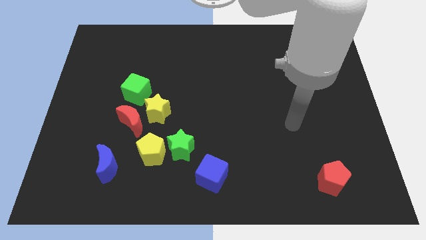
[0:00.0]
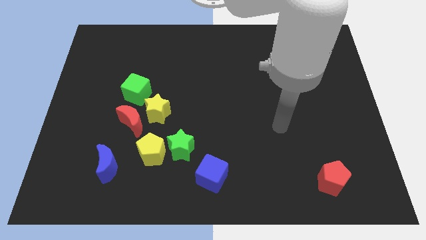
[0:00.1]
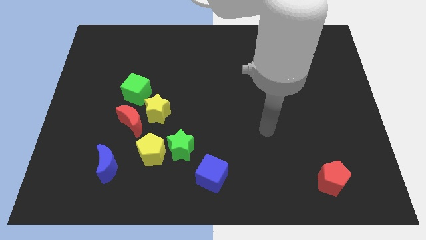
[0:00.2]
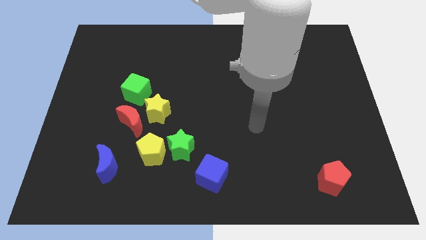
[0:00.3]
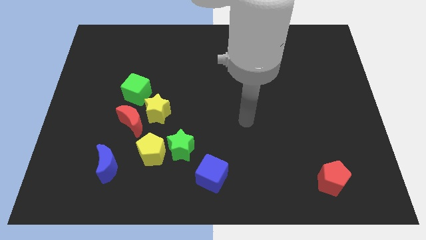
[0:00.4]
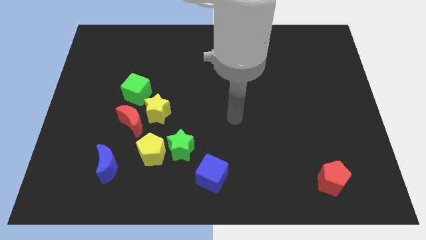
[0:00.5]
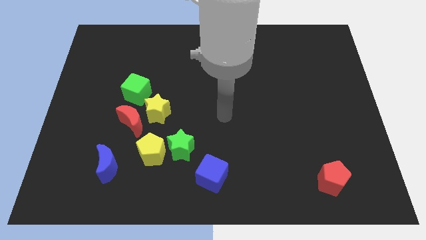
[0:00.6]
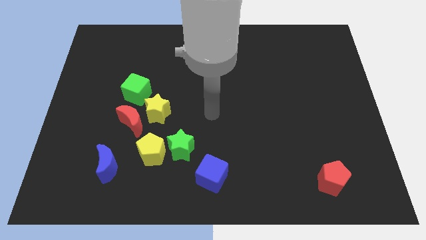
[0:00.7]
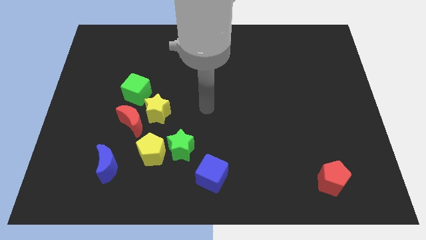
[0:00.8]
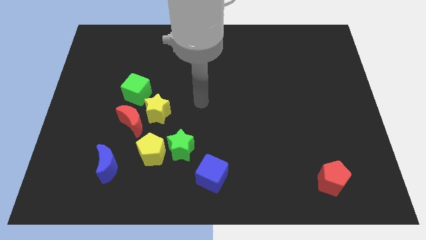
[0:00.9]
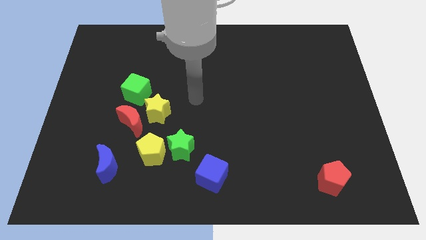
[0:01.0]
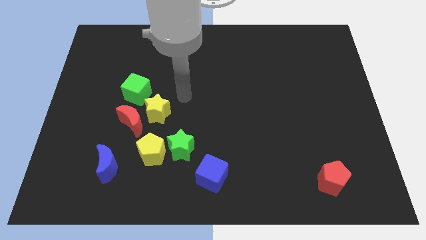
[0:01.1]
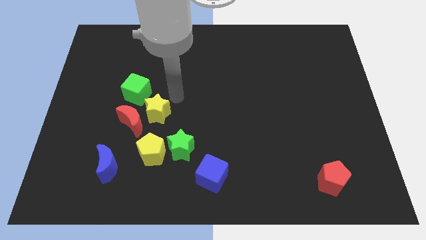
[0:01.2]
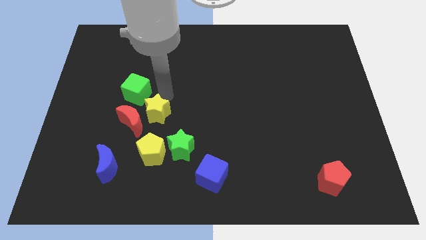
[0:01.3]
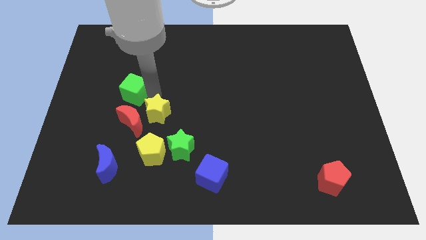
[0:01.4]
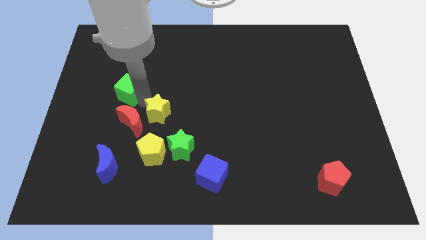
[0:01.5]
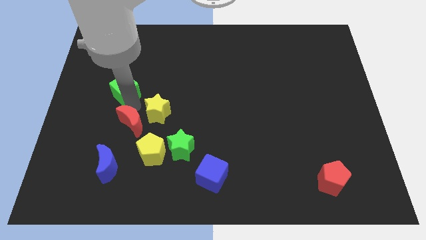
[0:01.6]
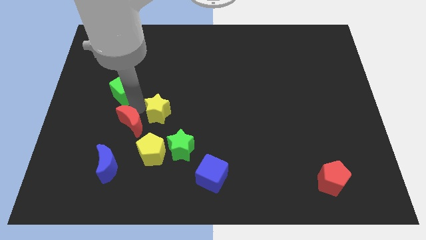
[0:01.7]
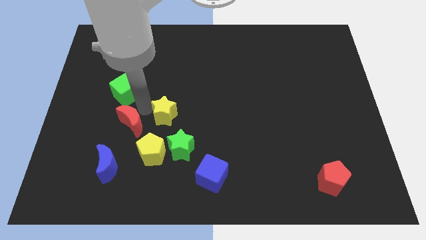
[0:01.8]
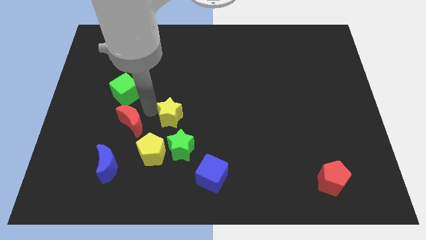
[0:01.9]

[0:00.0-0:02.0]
pull the yellow star apart from the red moon and green cube

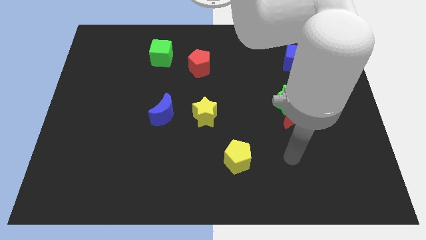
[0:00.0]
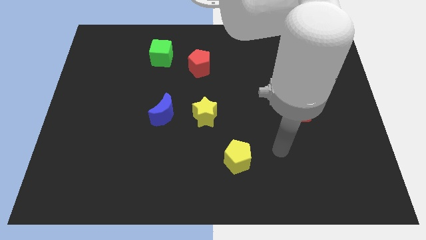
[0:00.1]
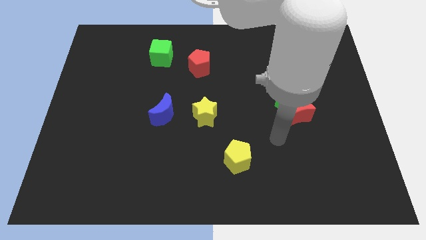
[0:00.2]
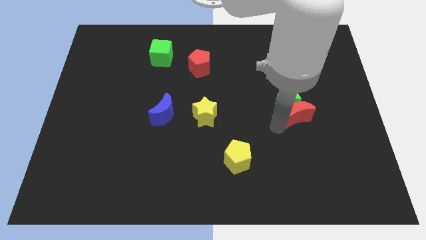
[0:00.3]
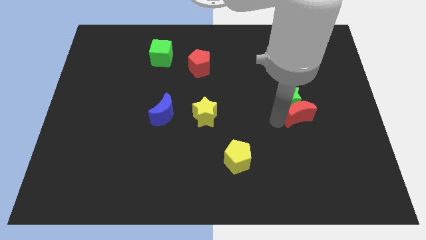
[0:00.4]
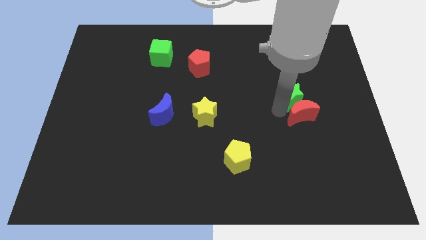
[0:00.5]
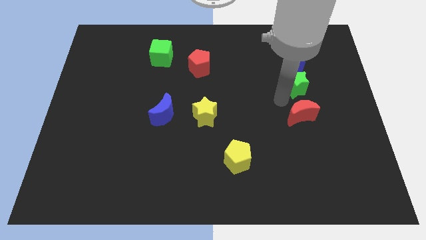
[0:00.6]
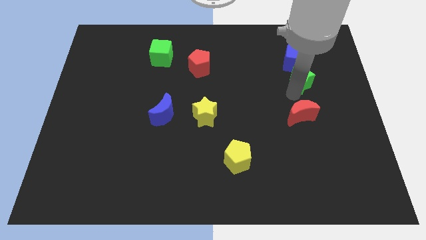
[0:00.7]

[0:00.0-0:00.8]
separate the red moon from the green star

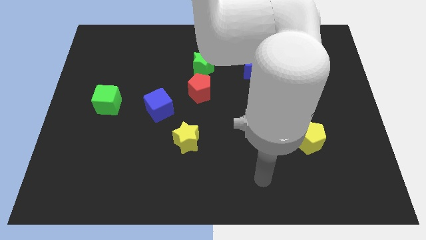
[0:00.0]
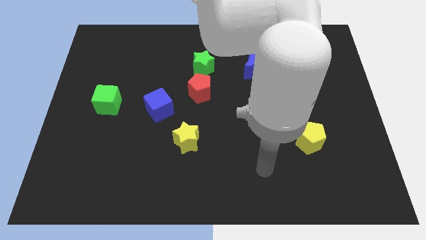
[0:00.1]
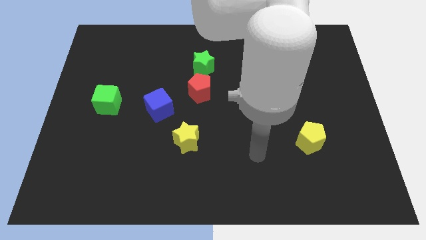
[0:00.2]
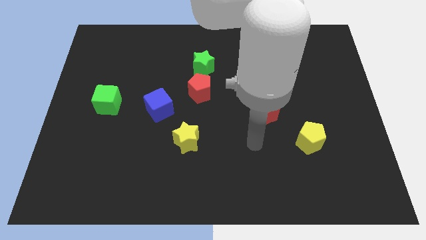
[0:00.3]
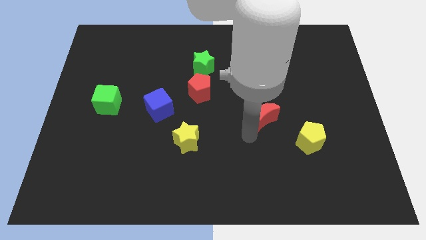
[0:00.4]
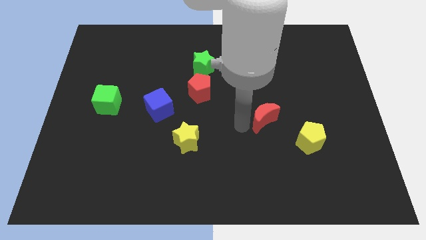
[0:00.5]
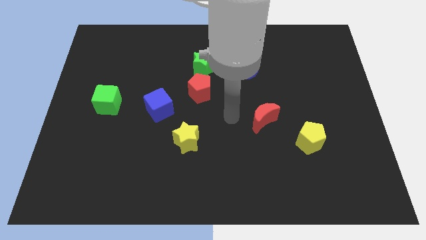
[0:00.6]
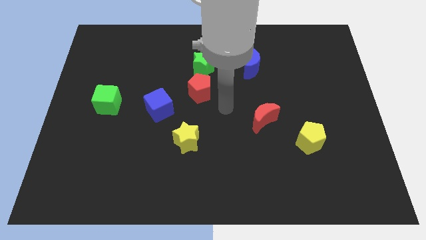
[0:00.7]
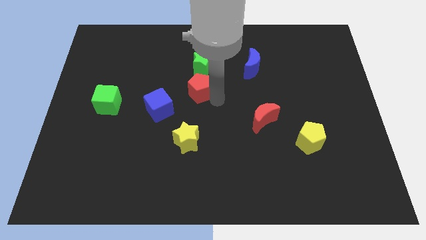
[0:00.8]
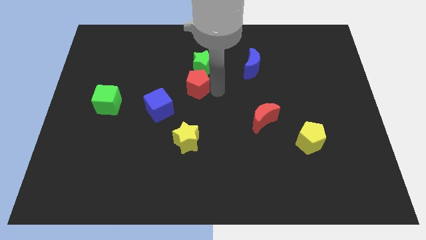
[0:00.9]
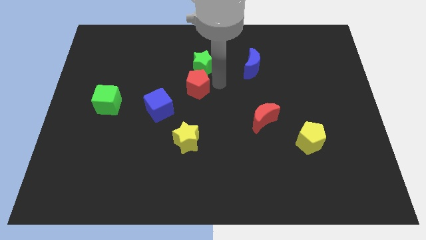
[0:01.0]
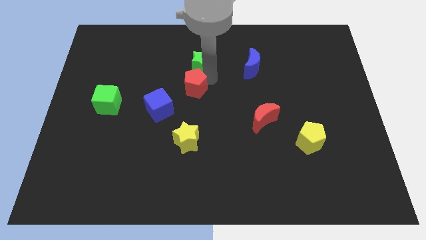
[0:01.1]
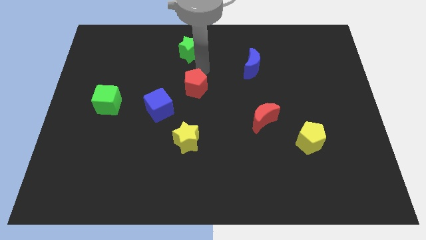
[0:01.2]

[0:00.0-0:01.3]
pull the red pentagon apart from the green star

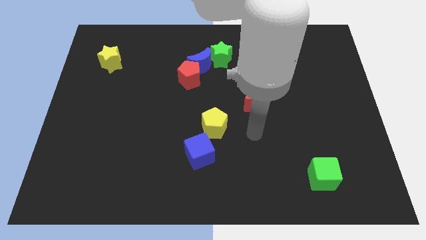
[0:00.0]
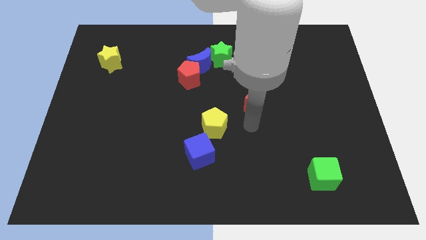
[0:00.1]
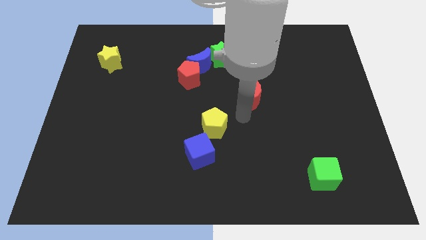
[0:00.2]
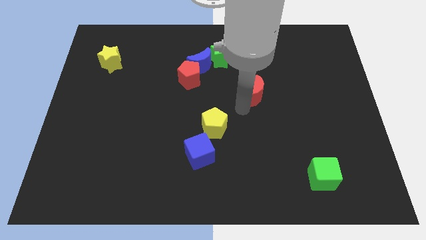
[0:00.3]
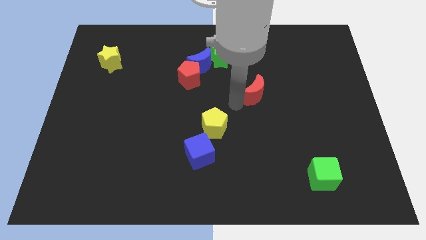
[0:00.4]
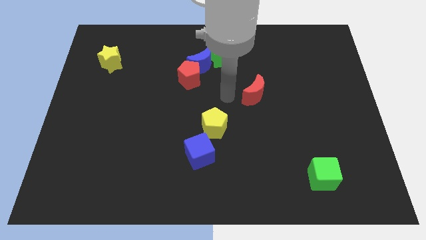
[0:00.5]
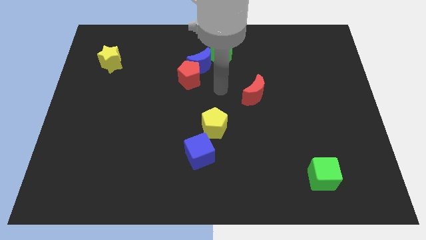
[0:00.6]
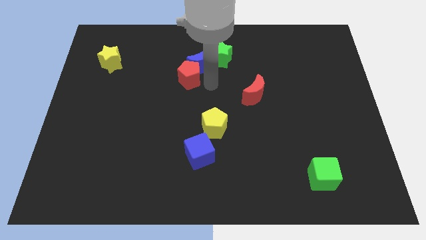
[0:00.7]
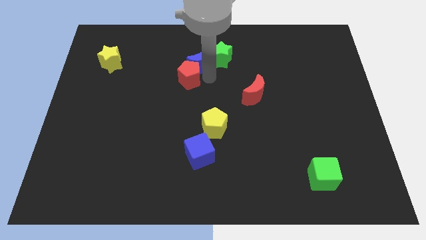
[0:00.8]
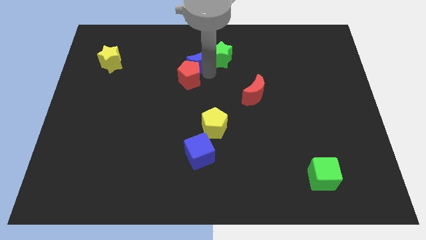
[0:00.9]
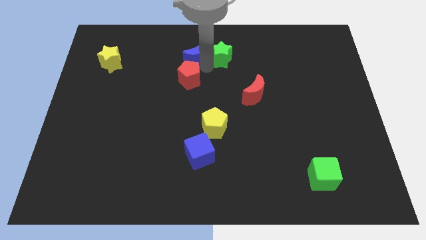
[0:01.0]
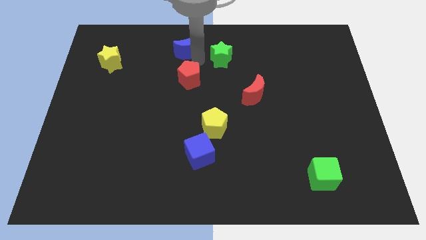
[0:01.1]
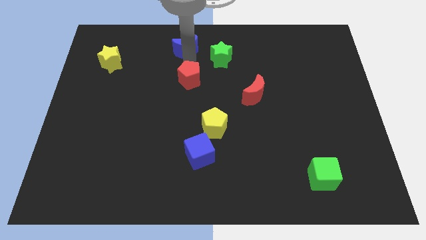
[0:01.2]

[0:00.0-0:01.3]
move the red pentagon away from the blue moon

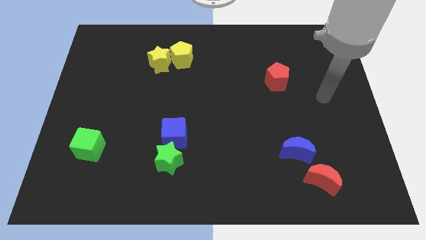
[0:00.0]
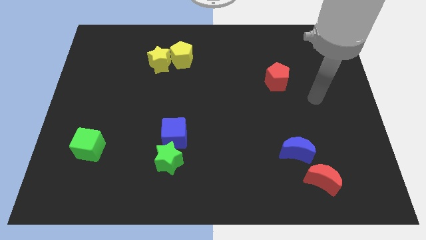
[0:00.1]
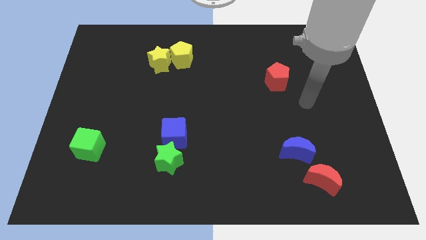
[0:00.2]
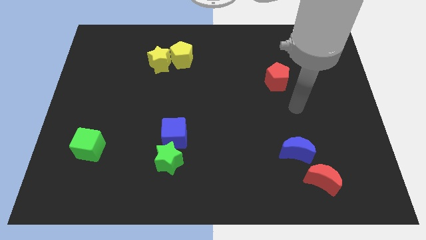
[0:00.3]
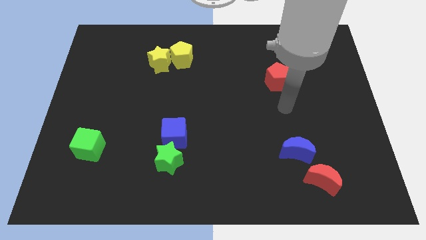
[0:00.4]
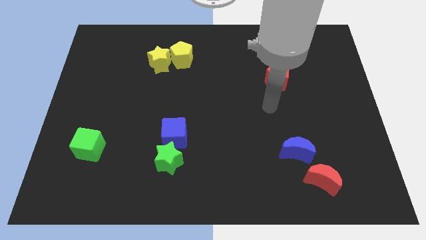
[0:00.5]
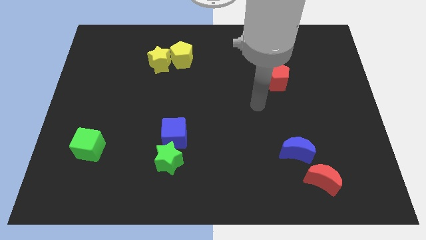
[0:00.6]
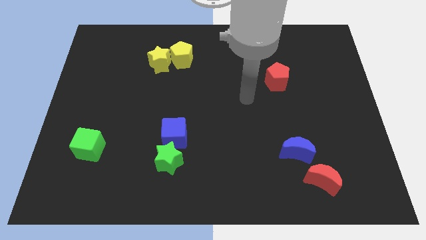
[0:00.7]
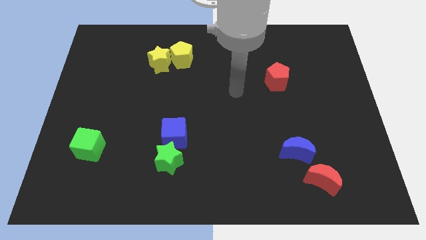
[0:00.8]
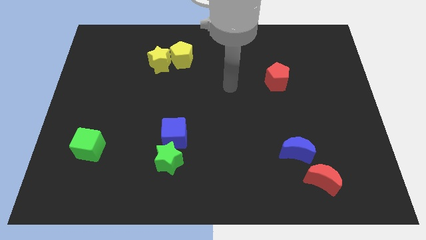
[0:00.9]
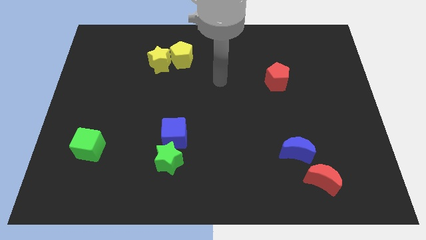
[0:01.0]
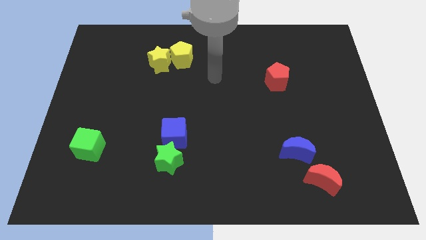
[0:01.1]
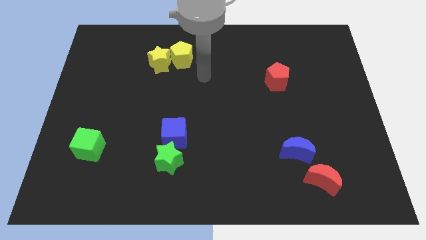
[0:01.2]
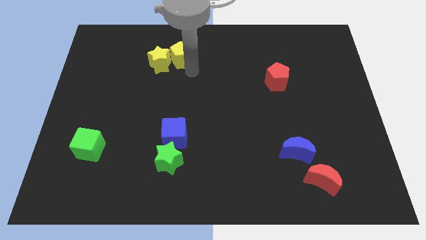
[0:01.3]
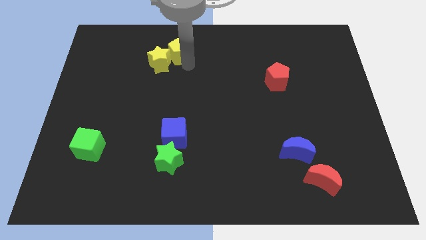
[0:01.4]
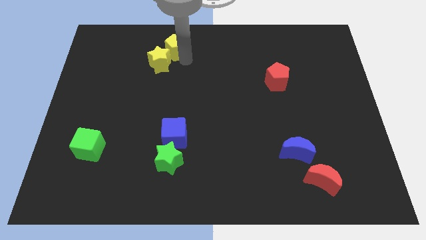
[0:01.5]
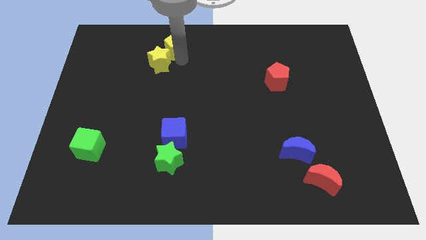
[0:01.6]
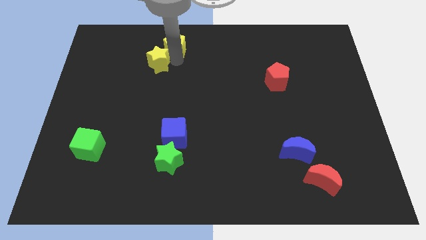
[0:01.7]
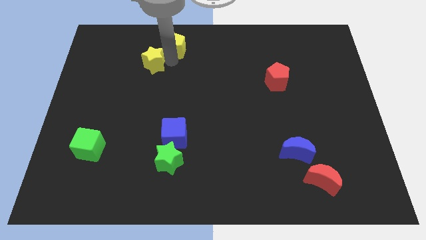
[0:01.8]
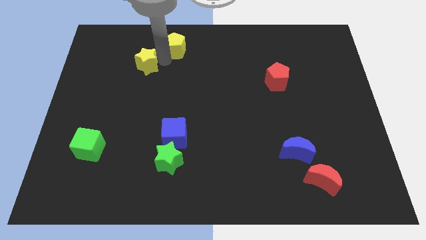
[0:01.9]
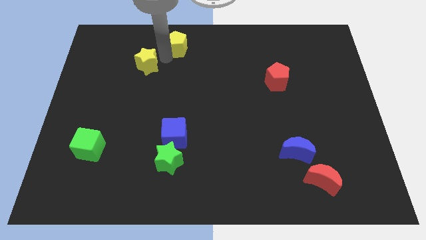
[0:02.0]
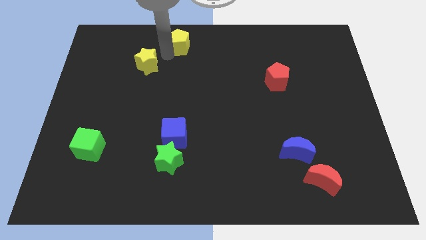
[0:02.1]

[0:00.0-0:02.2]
separate the yellow star from the yellow pentagon

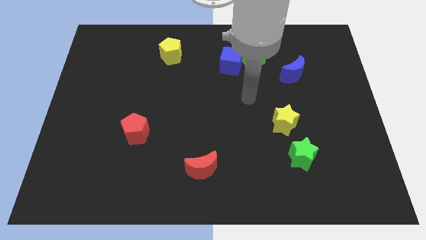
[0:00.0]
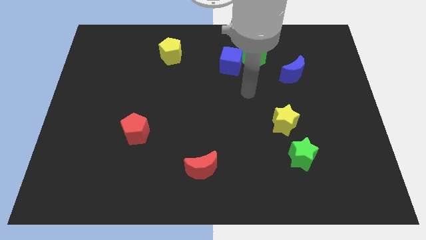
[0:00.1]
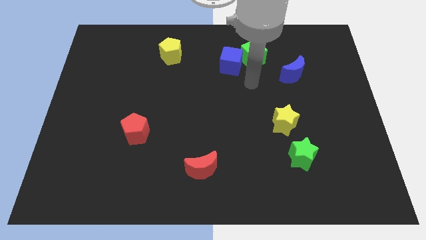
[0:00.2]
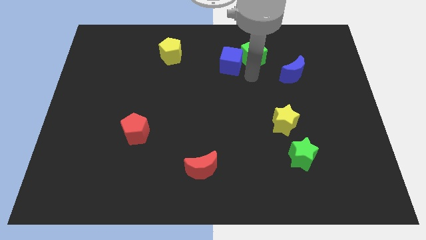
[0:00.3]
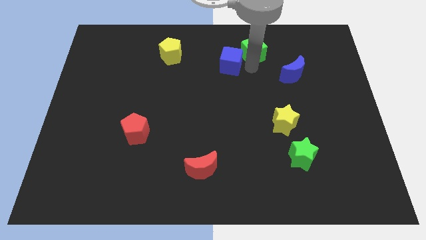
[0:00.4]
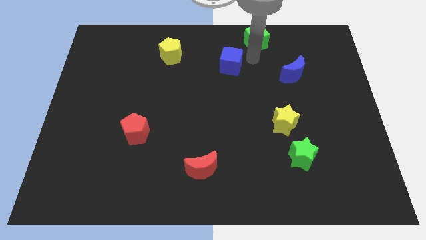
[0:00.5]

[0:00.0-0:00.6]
move the blue cube away from the green cube

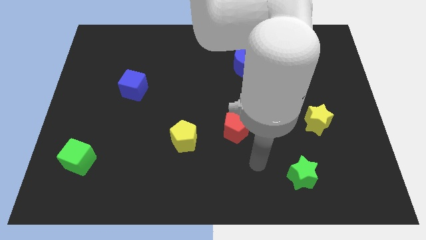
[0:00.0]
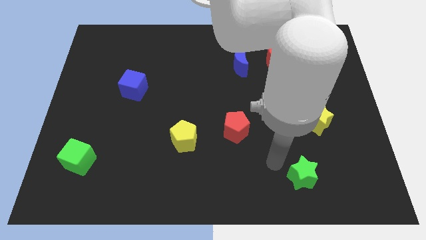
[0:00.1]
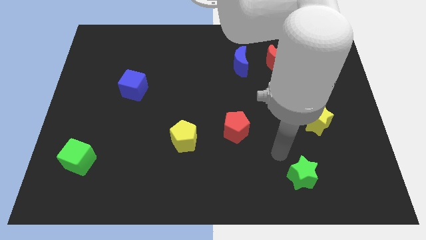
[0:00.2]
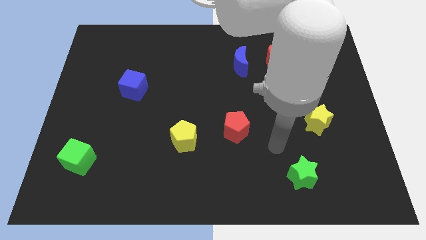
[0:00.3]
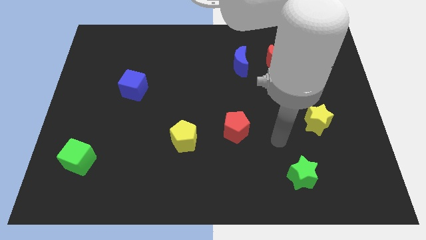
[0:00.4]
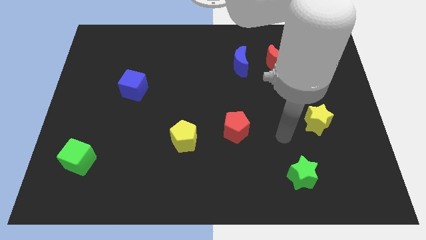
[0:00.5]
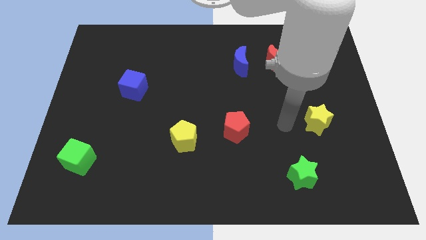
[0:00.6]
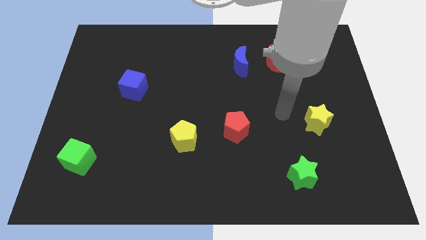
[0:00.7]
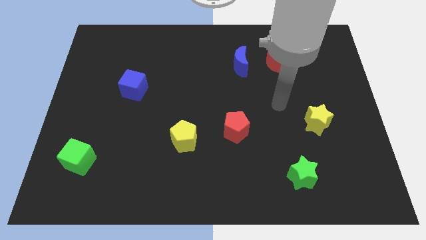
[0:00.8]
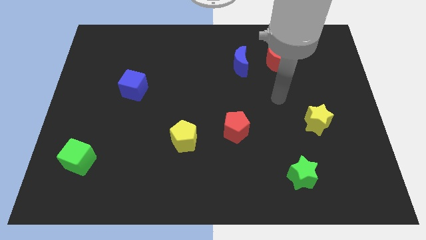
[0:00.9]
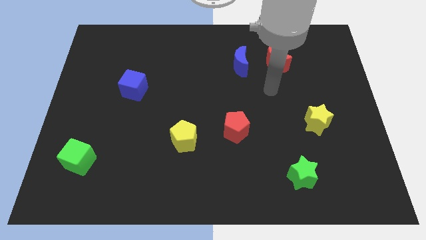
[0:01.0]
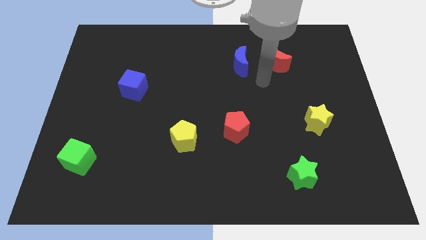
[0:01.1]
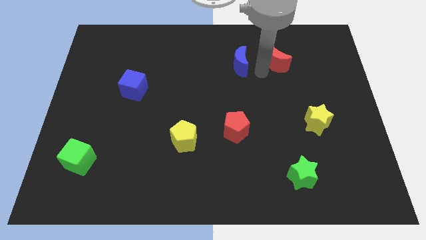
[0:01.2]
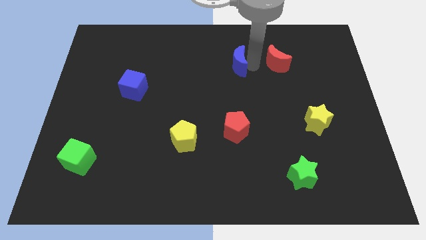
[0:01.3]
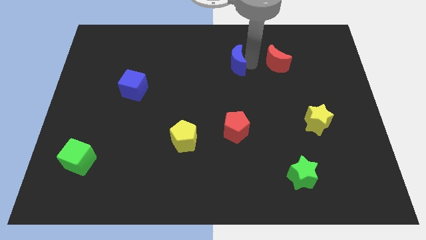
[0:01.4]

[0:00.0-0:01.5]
pull the red moon apart from the blue moon
